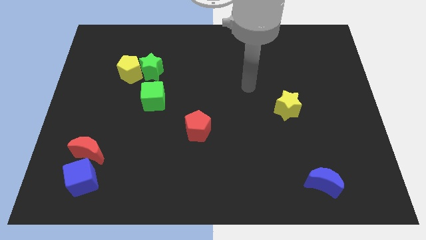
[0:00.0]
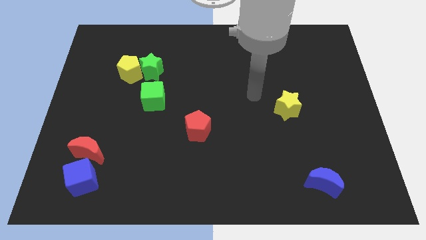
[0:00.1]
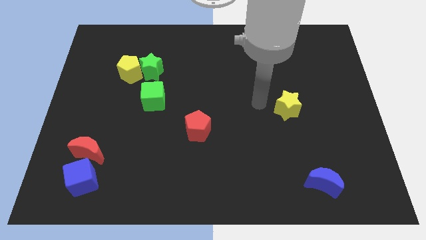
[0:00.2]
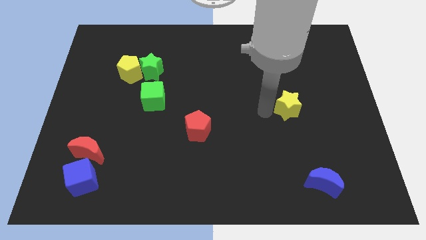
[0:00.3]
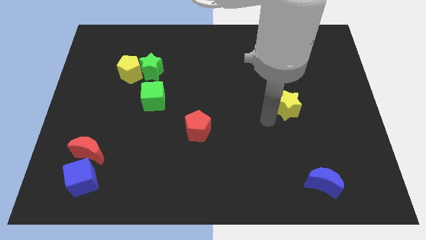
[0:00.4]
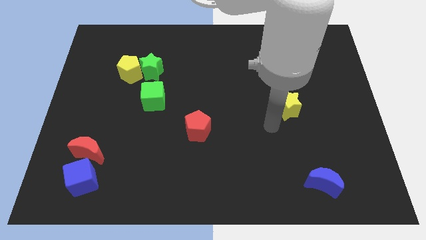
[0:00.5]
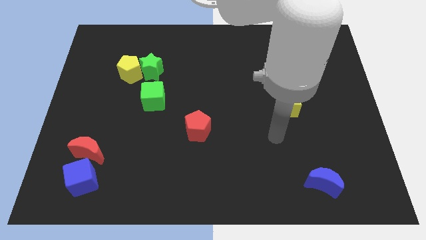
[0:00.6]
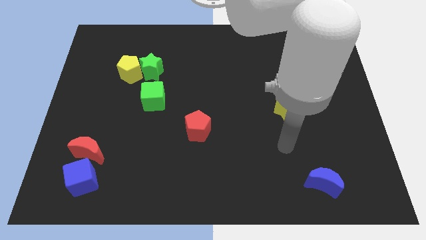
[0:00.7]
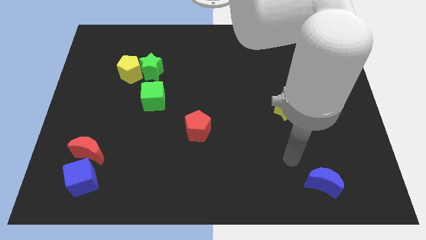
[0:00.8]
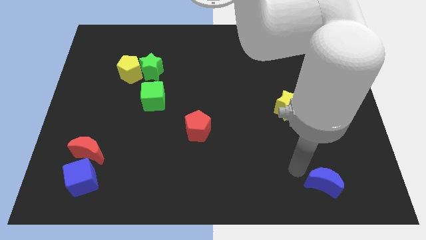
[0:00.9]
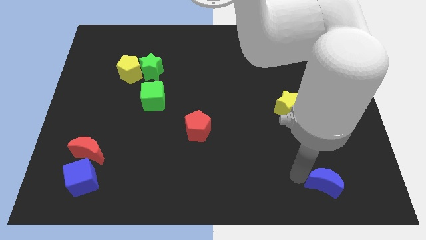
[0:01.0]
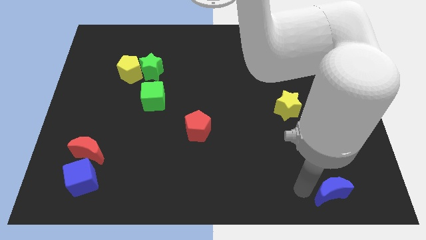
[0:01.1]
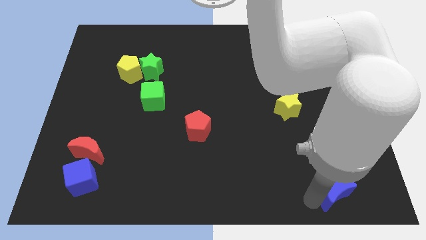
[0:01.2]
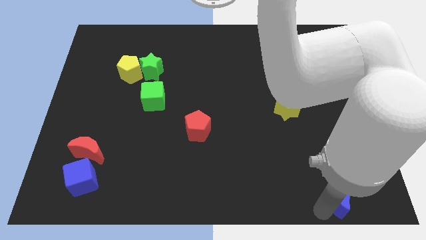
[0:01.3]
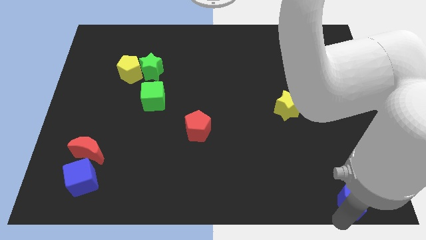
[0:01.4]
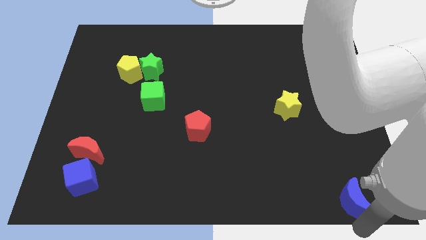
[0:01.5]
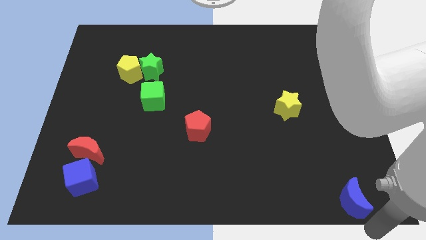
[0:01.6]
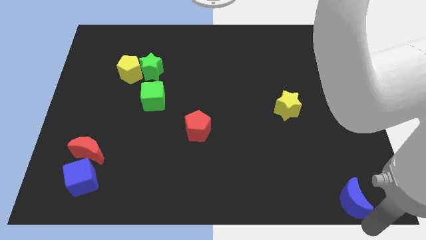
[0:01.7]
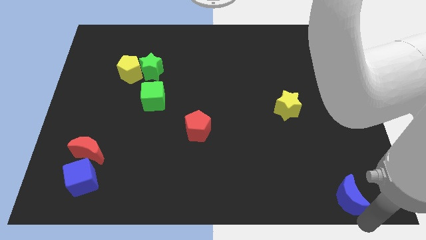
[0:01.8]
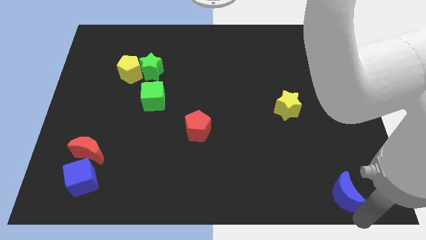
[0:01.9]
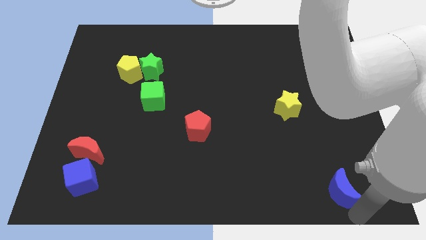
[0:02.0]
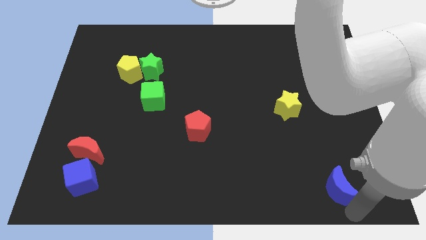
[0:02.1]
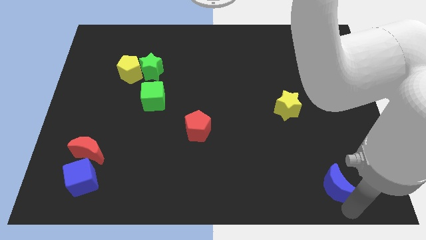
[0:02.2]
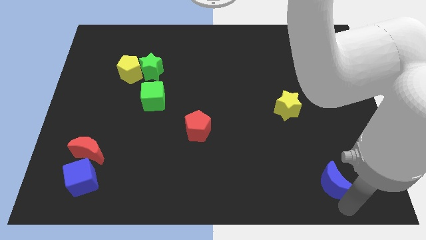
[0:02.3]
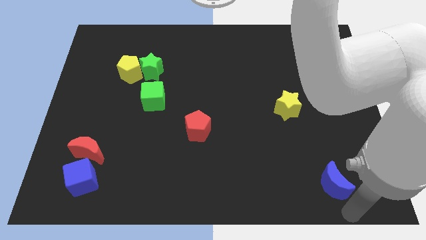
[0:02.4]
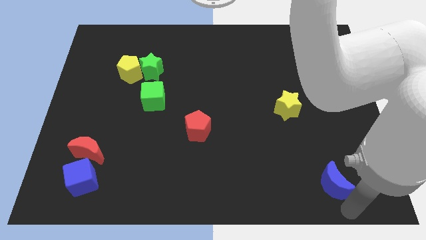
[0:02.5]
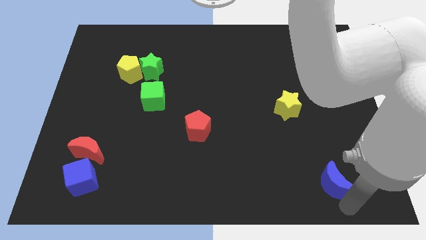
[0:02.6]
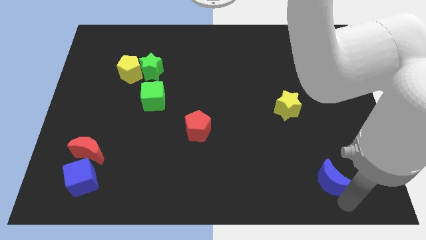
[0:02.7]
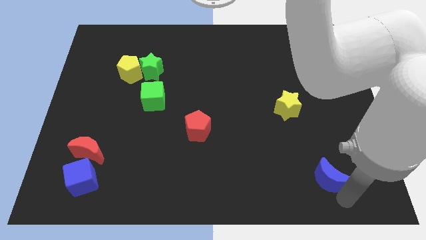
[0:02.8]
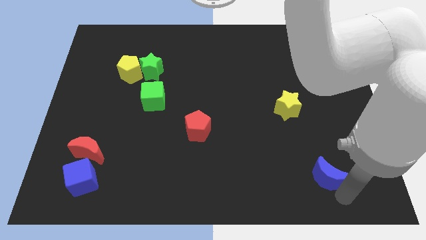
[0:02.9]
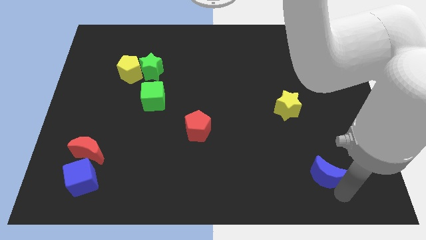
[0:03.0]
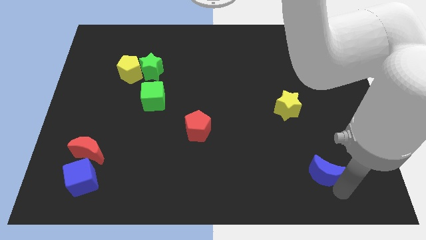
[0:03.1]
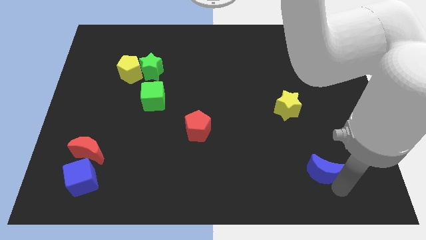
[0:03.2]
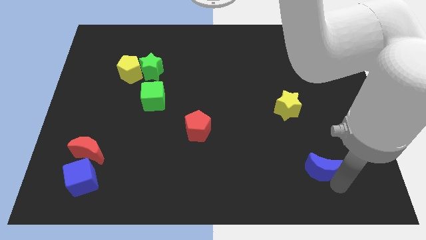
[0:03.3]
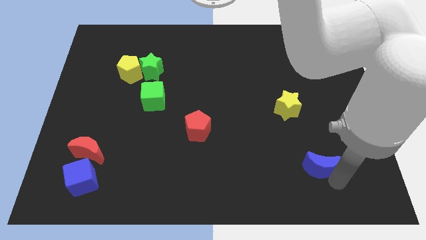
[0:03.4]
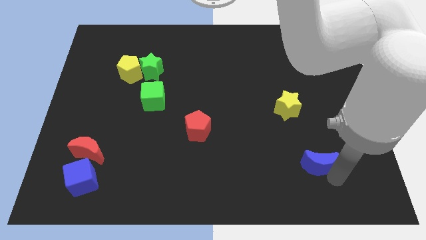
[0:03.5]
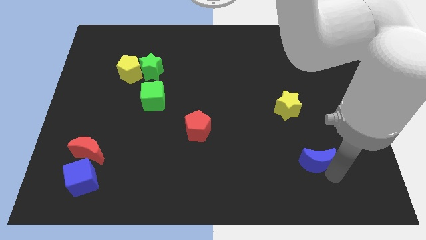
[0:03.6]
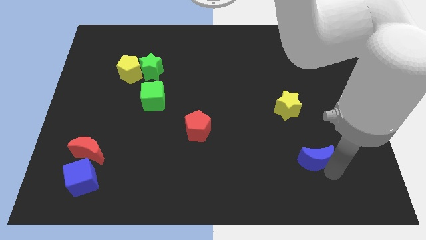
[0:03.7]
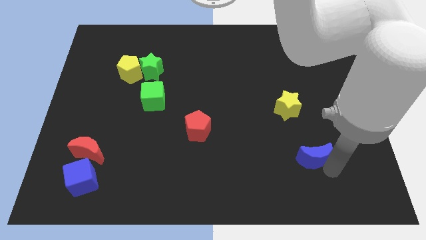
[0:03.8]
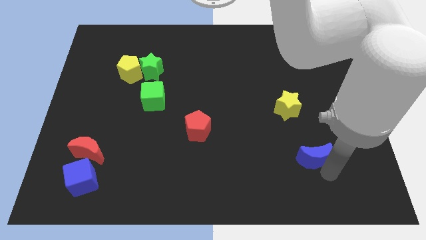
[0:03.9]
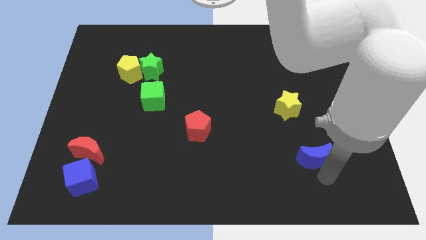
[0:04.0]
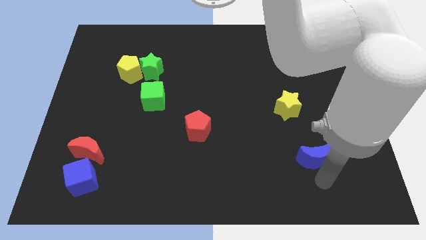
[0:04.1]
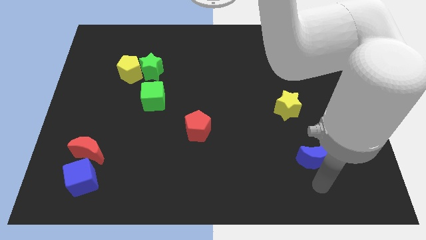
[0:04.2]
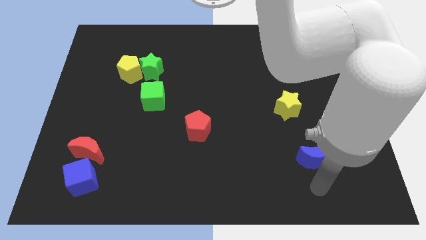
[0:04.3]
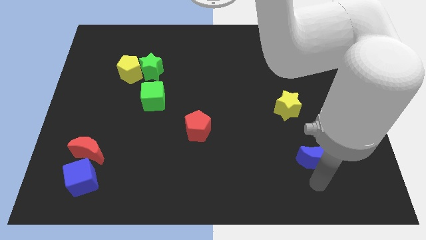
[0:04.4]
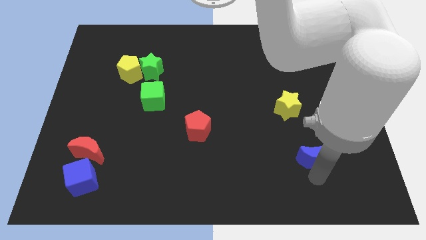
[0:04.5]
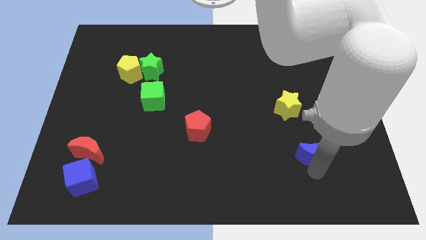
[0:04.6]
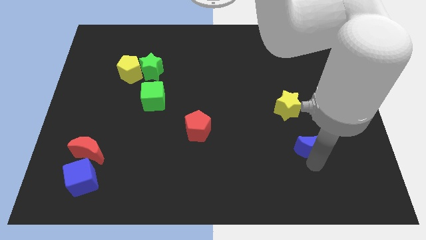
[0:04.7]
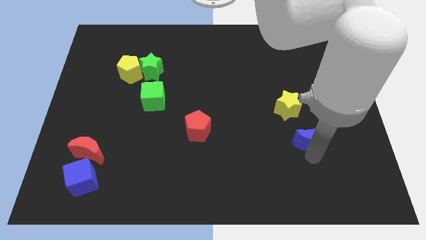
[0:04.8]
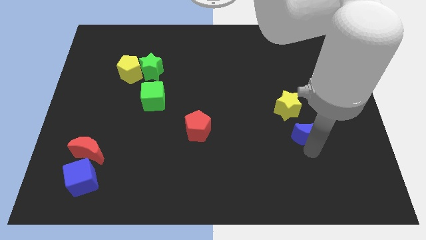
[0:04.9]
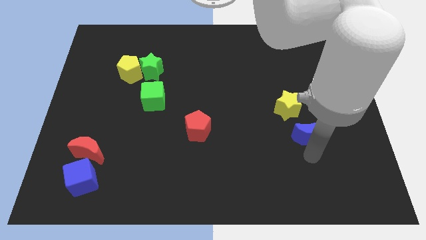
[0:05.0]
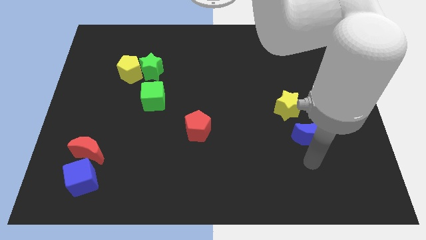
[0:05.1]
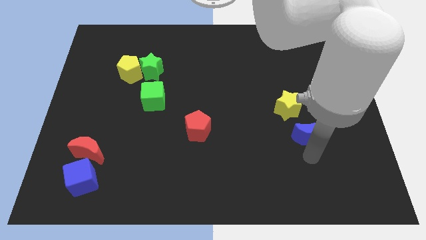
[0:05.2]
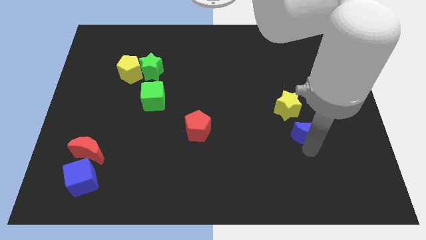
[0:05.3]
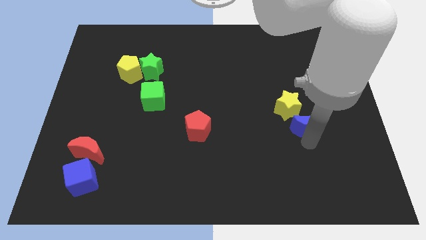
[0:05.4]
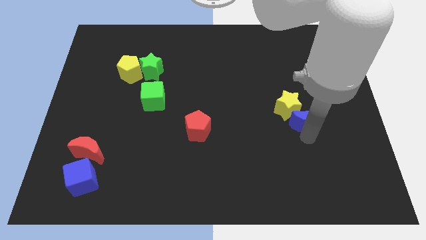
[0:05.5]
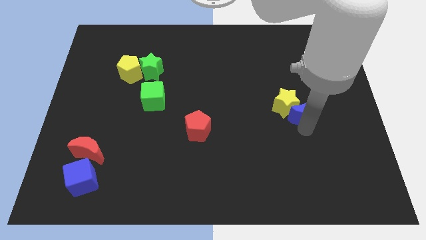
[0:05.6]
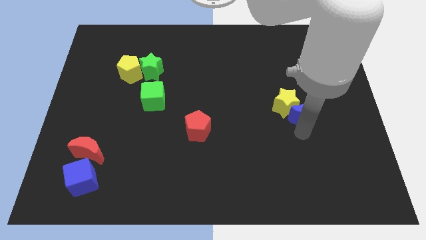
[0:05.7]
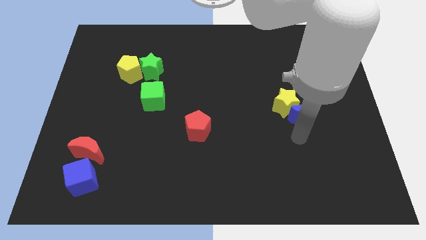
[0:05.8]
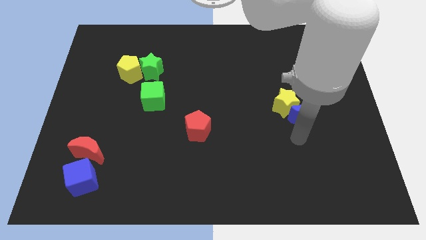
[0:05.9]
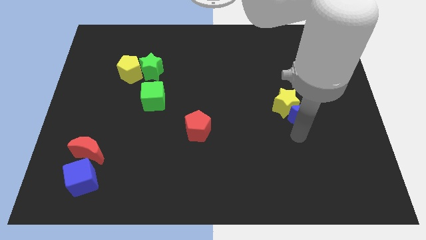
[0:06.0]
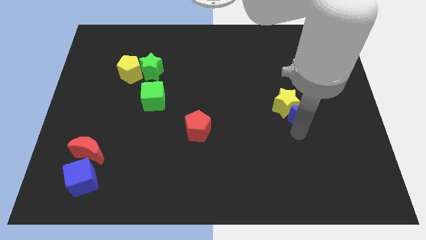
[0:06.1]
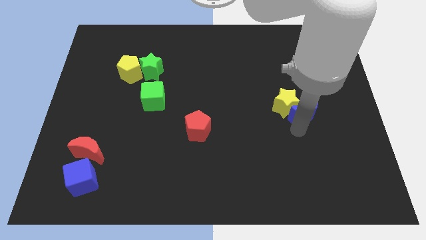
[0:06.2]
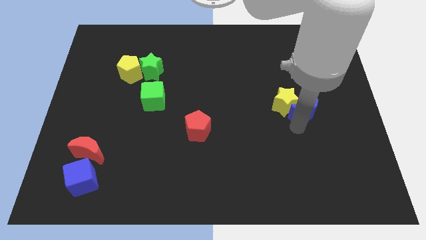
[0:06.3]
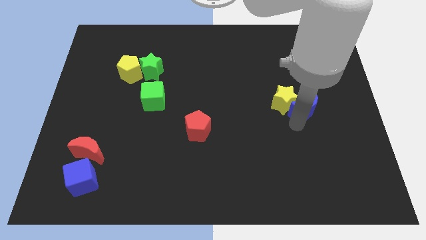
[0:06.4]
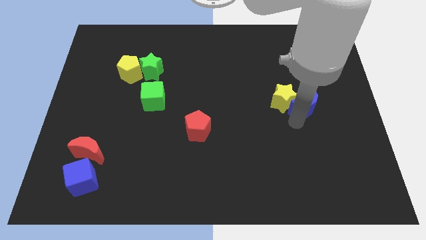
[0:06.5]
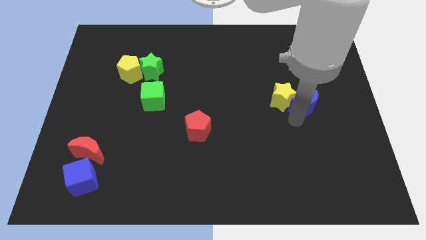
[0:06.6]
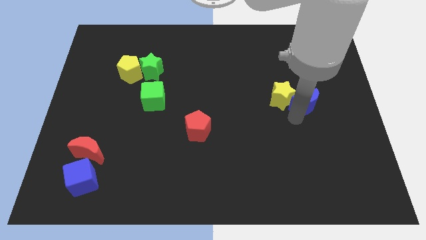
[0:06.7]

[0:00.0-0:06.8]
push the blue moon up

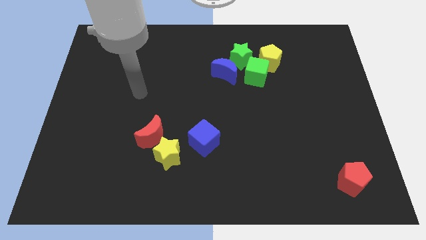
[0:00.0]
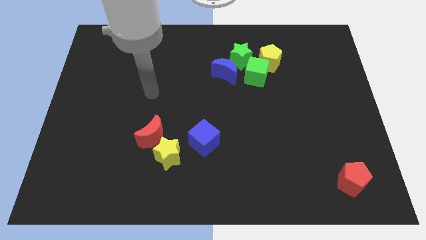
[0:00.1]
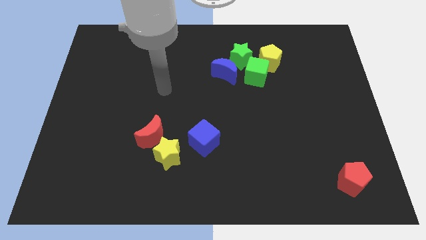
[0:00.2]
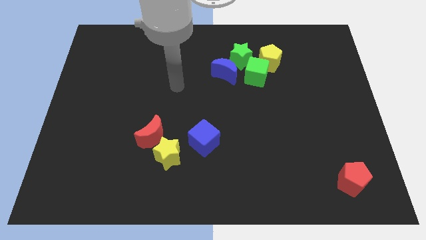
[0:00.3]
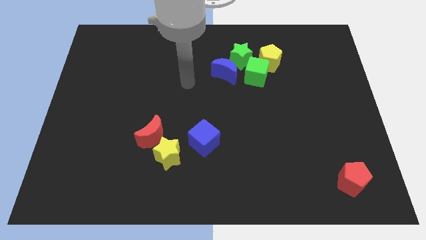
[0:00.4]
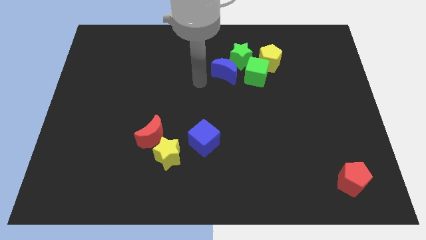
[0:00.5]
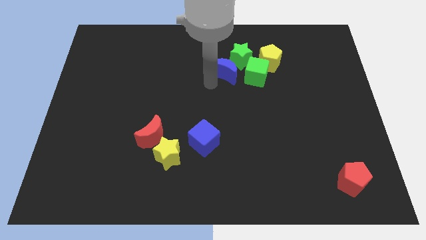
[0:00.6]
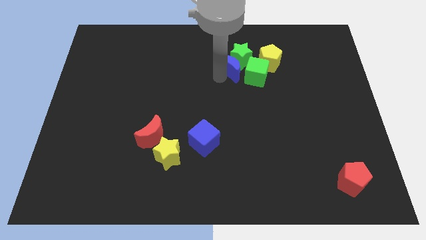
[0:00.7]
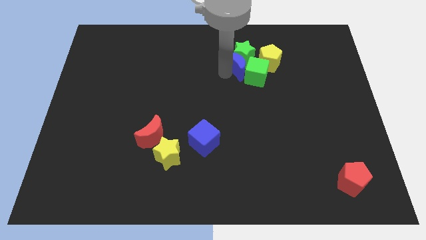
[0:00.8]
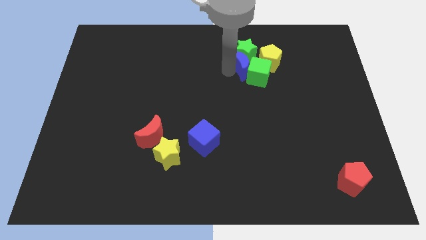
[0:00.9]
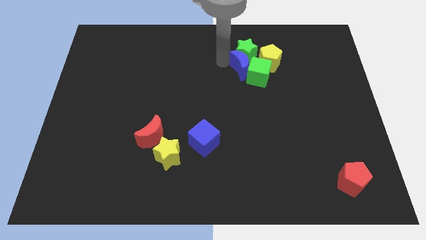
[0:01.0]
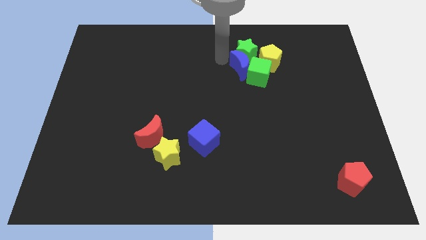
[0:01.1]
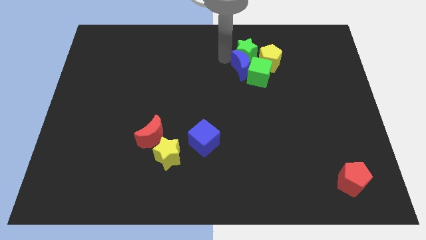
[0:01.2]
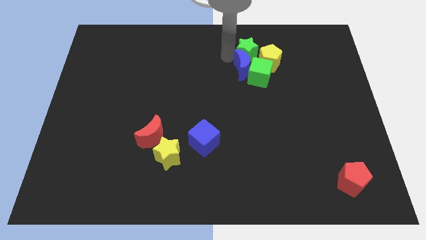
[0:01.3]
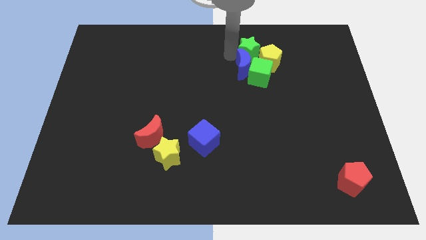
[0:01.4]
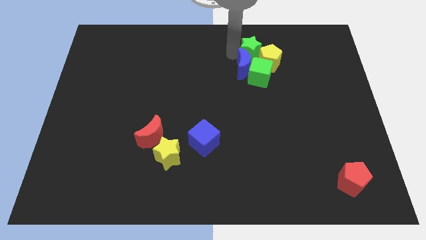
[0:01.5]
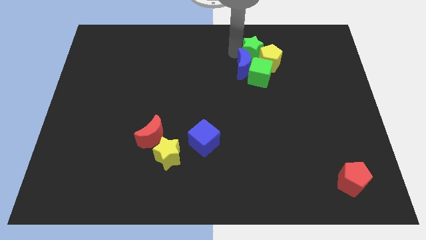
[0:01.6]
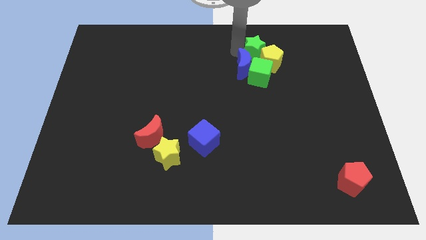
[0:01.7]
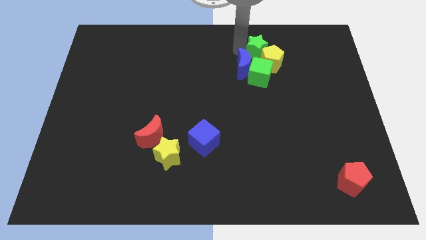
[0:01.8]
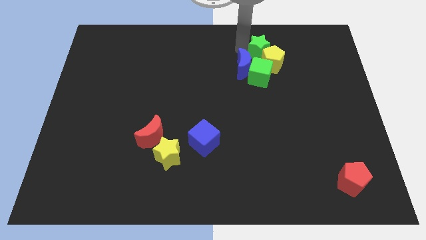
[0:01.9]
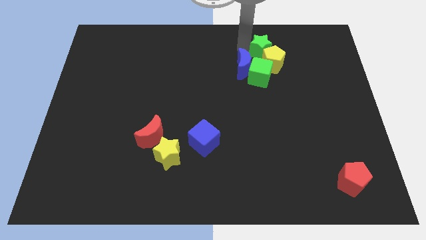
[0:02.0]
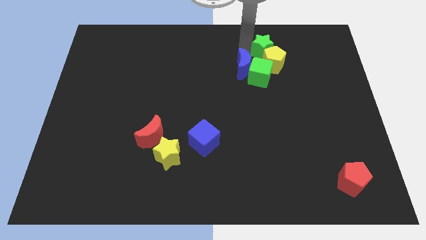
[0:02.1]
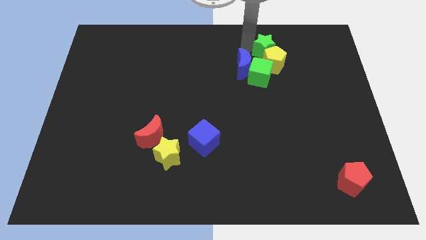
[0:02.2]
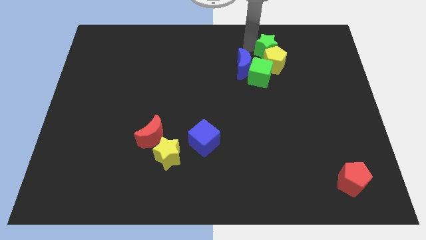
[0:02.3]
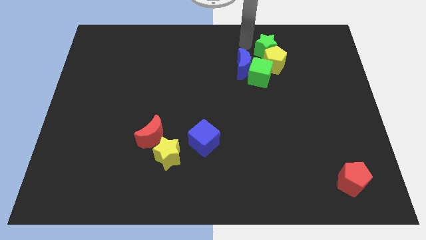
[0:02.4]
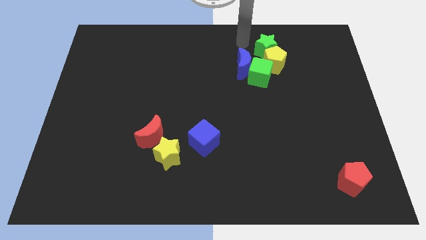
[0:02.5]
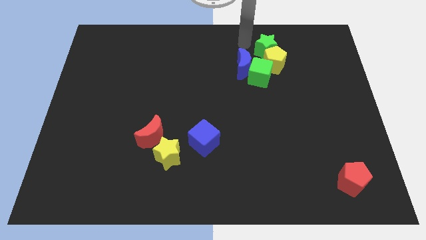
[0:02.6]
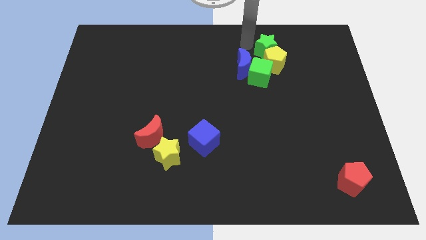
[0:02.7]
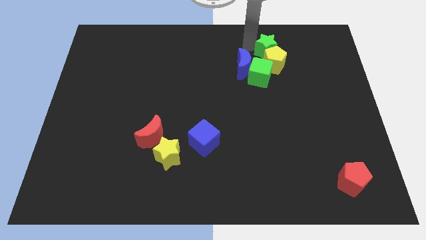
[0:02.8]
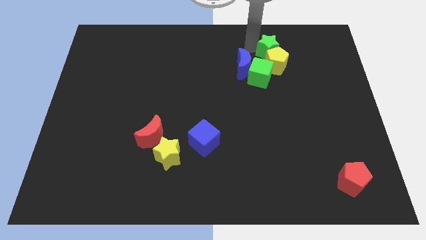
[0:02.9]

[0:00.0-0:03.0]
move the green star right slightly
